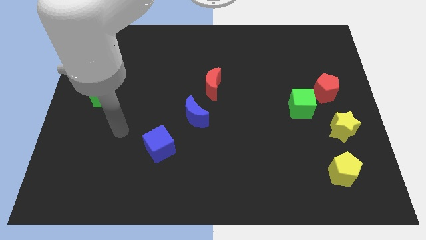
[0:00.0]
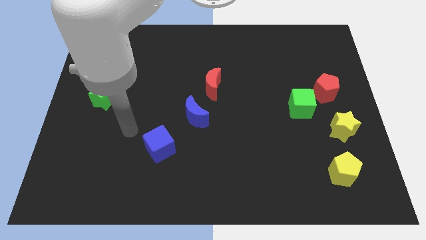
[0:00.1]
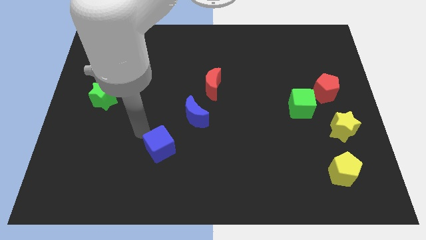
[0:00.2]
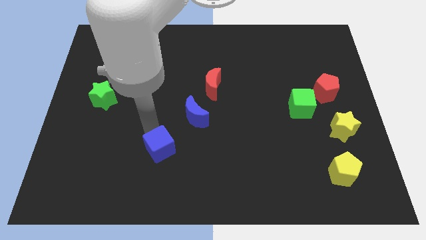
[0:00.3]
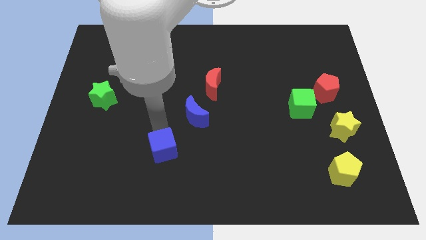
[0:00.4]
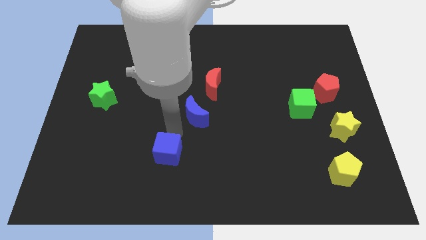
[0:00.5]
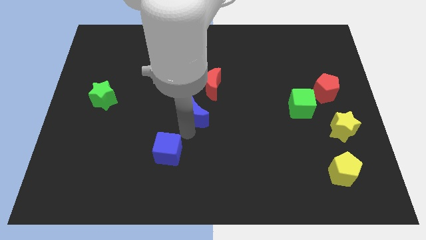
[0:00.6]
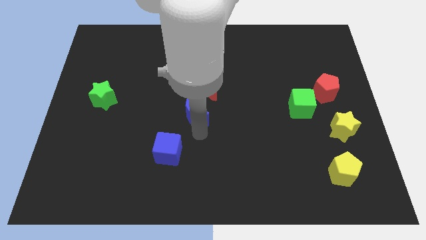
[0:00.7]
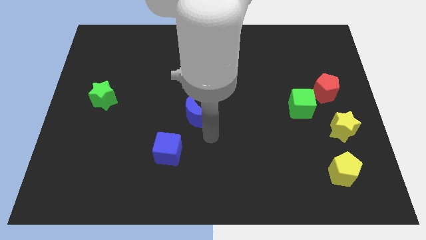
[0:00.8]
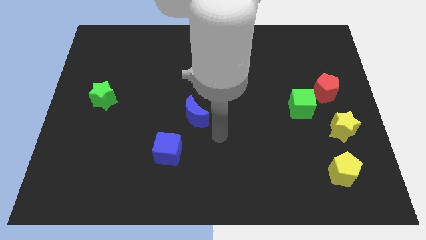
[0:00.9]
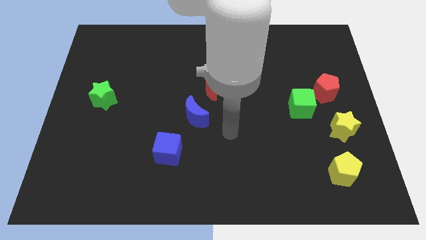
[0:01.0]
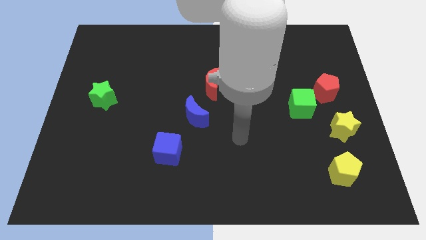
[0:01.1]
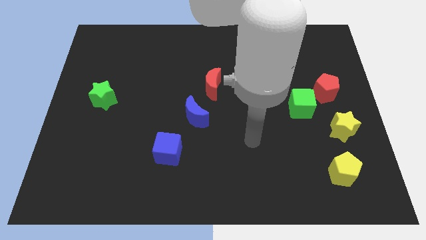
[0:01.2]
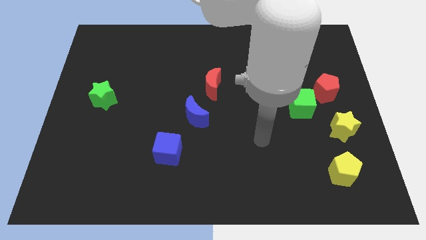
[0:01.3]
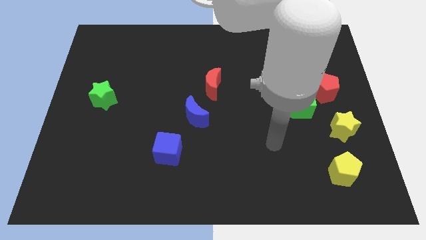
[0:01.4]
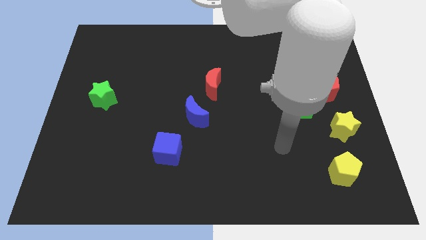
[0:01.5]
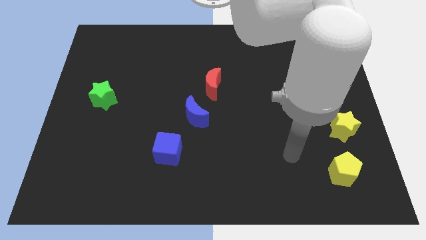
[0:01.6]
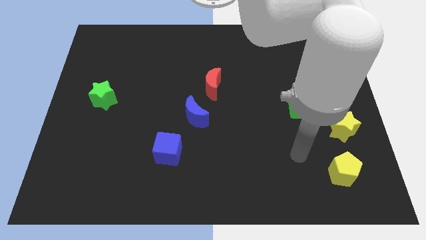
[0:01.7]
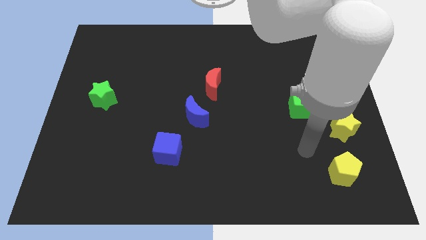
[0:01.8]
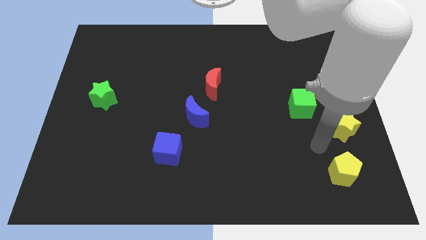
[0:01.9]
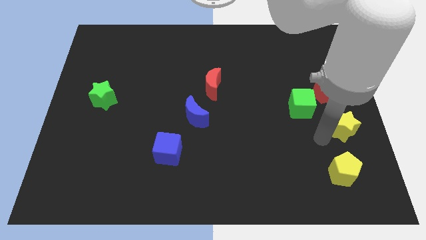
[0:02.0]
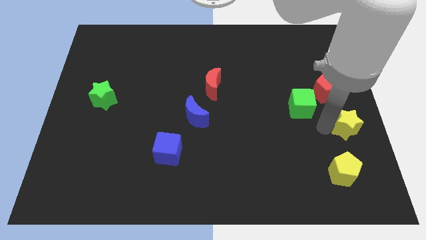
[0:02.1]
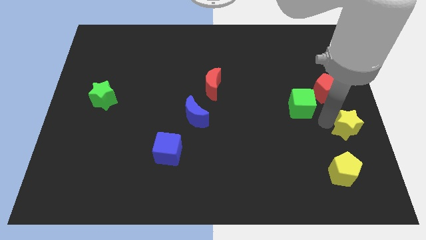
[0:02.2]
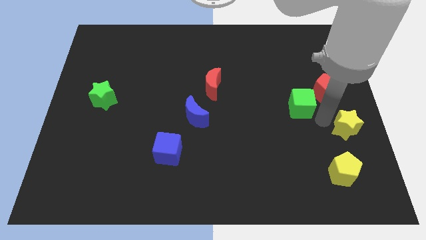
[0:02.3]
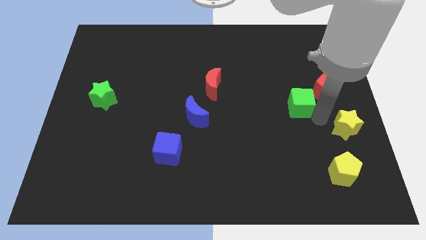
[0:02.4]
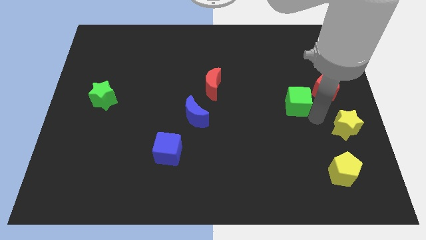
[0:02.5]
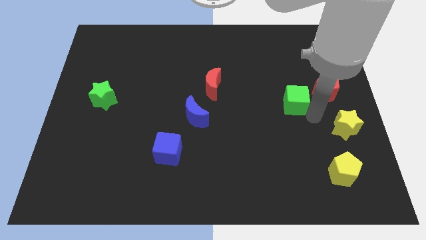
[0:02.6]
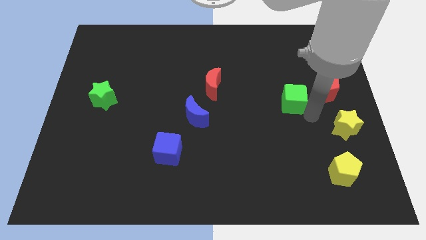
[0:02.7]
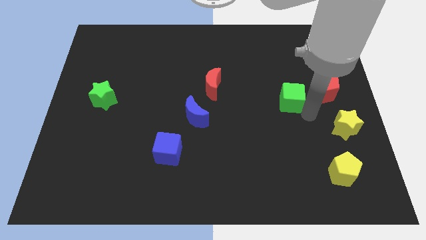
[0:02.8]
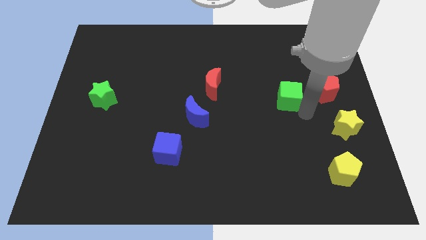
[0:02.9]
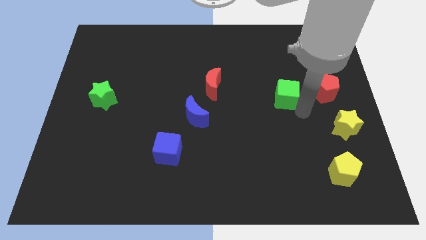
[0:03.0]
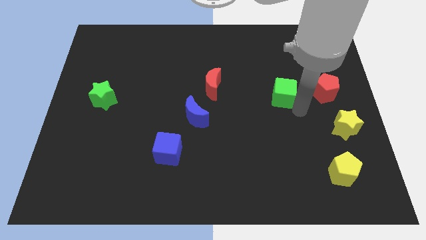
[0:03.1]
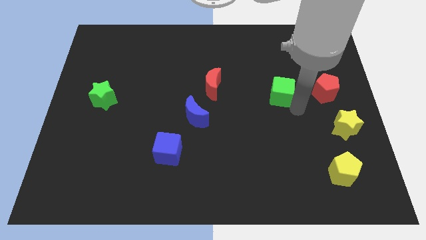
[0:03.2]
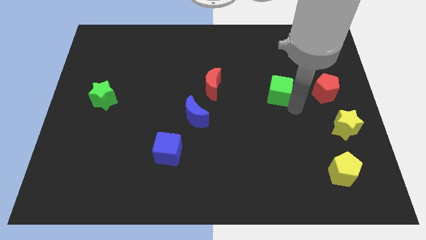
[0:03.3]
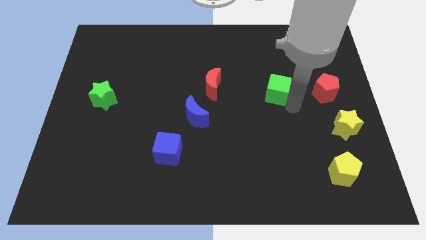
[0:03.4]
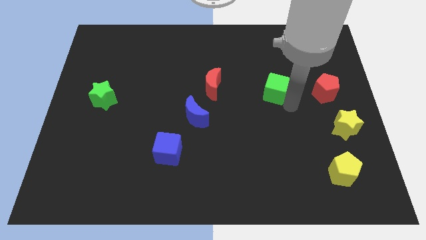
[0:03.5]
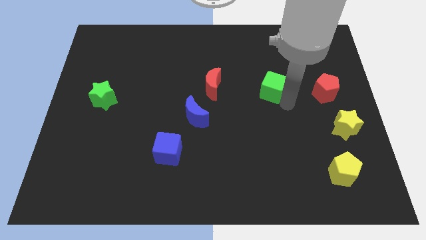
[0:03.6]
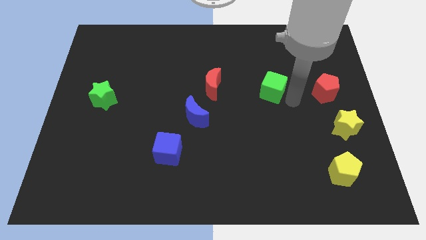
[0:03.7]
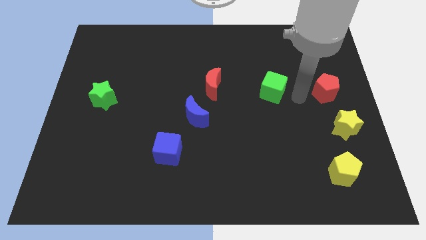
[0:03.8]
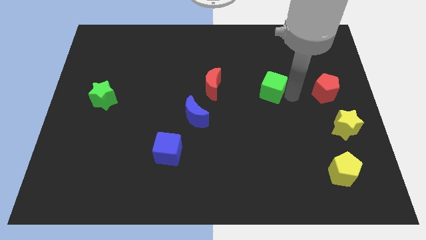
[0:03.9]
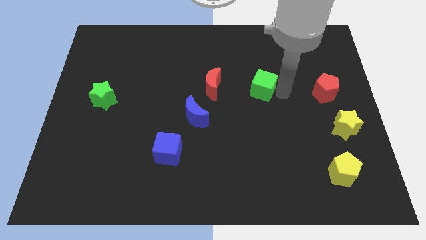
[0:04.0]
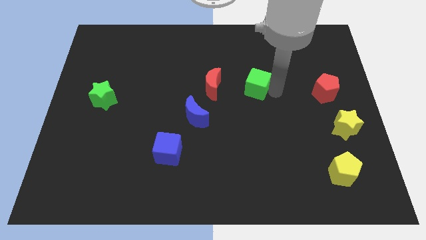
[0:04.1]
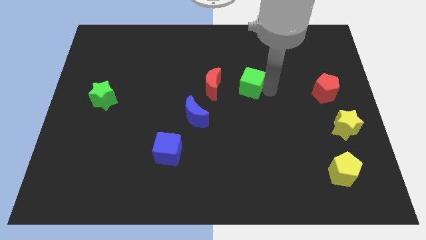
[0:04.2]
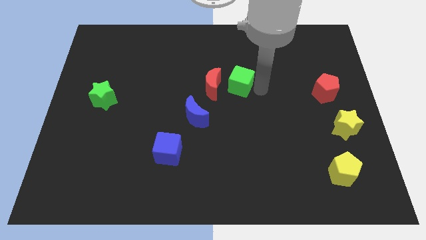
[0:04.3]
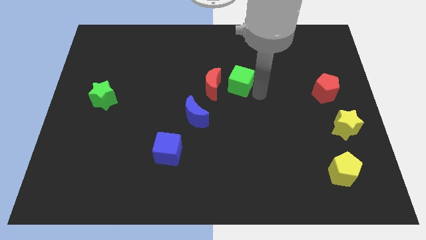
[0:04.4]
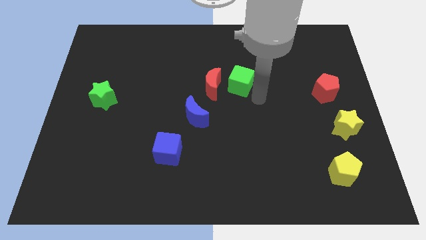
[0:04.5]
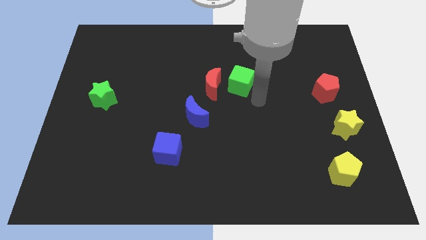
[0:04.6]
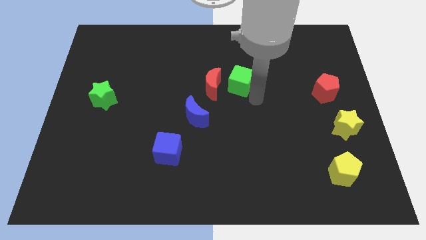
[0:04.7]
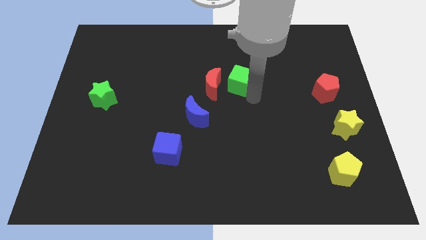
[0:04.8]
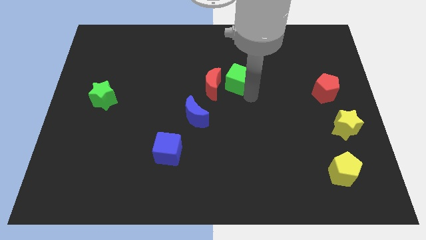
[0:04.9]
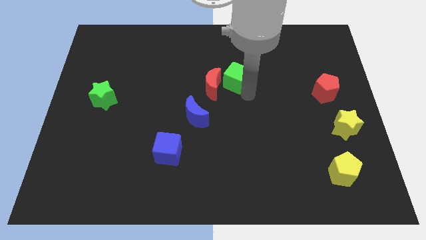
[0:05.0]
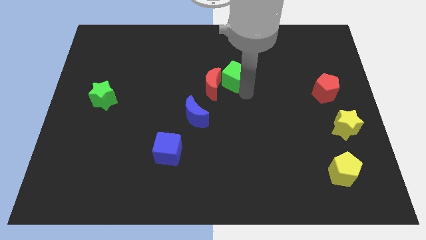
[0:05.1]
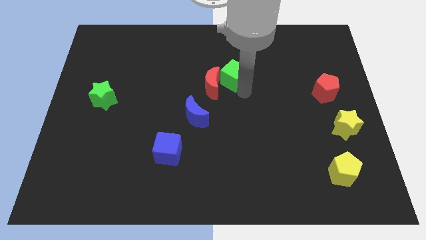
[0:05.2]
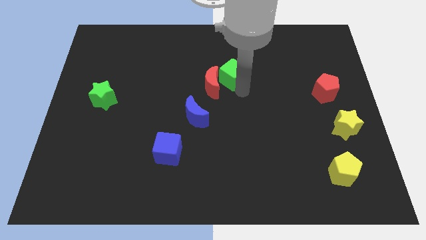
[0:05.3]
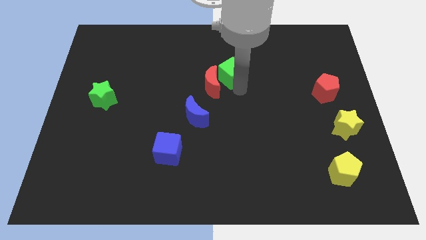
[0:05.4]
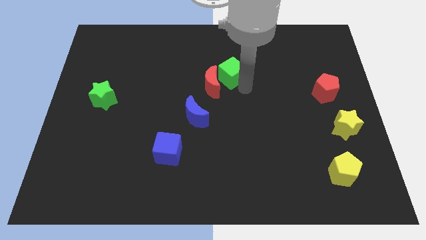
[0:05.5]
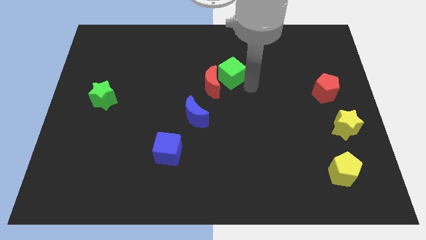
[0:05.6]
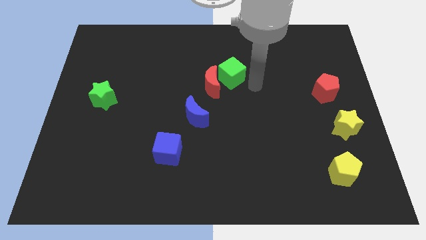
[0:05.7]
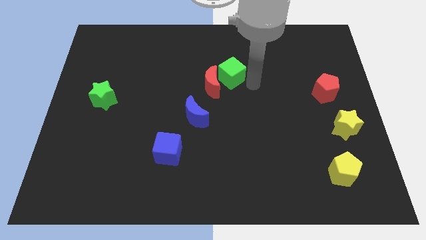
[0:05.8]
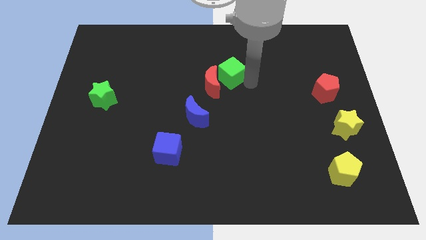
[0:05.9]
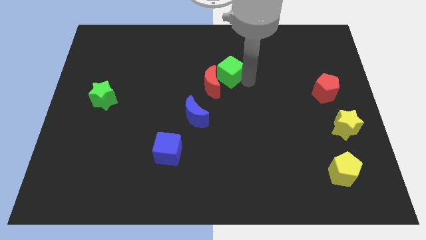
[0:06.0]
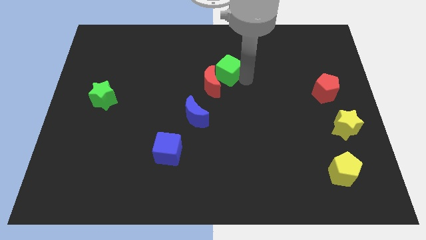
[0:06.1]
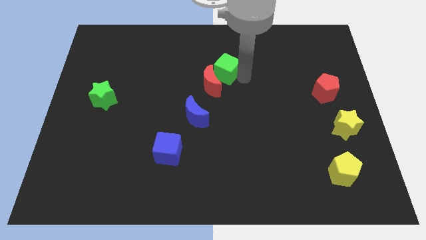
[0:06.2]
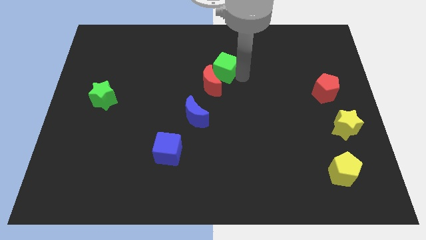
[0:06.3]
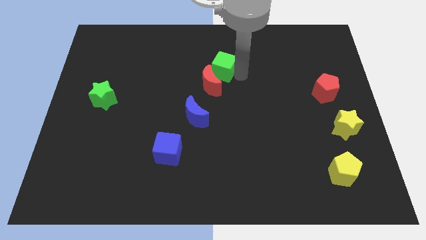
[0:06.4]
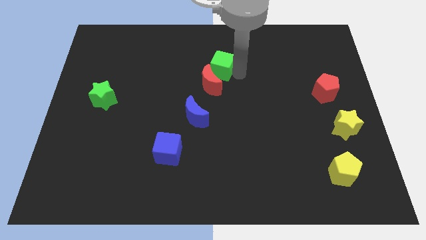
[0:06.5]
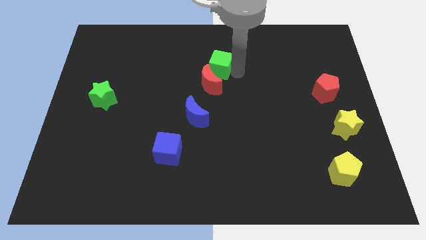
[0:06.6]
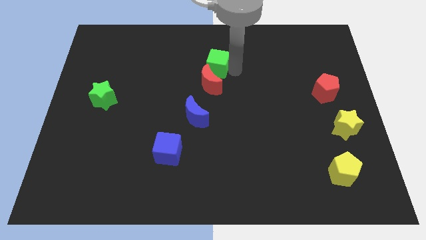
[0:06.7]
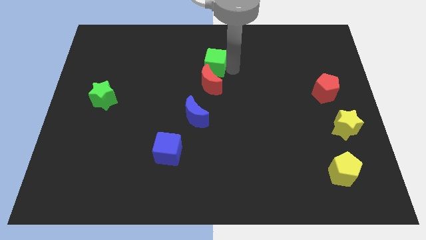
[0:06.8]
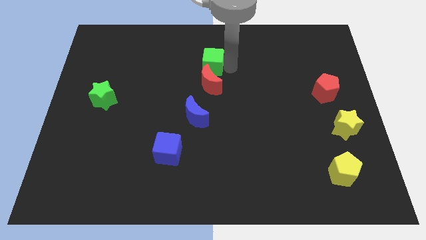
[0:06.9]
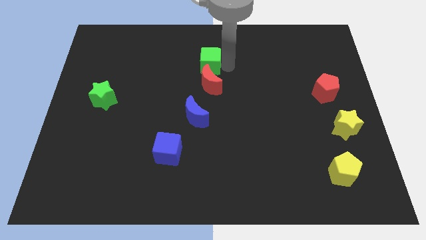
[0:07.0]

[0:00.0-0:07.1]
slide the green cube to the top left side of the red moon

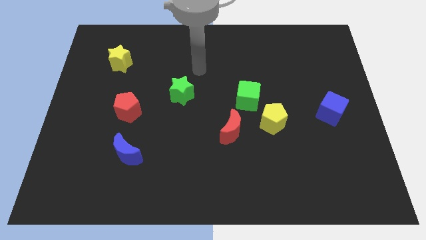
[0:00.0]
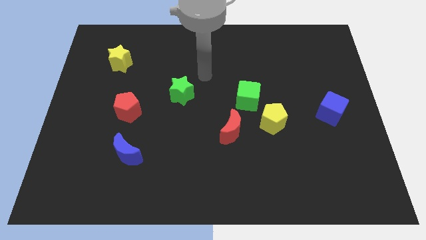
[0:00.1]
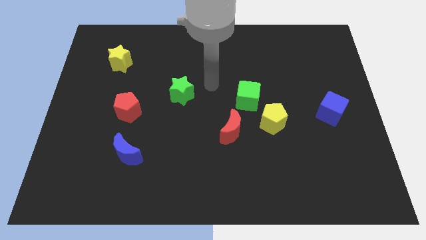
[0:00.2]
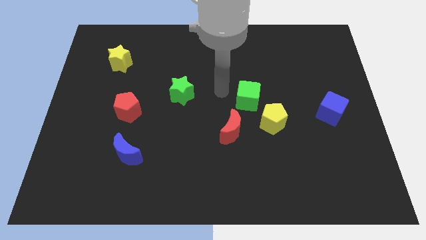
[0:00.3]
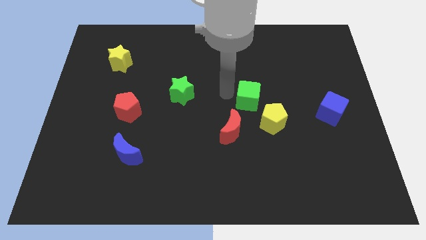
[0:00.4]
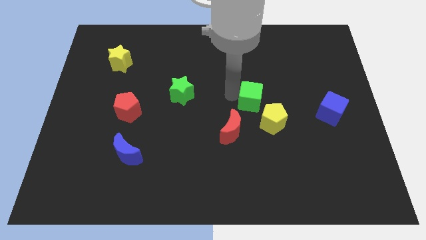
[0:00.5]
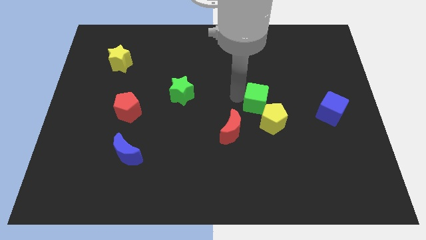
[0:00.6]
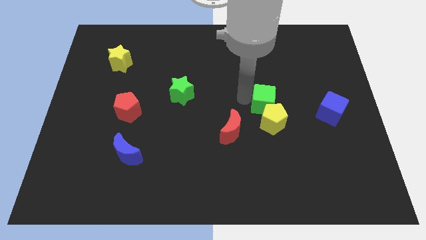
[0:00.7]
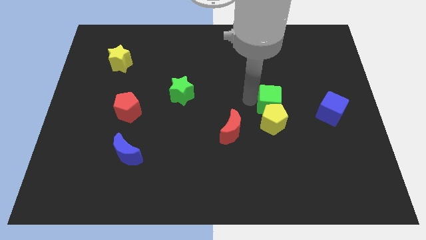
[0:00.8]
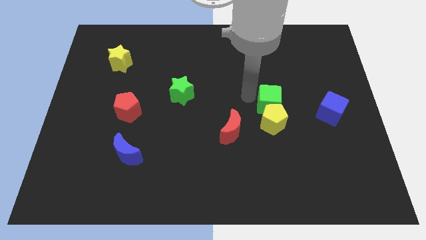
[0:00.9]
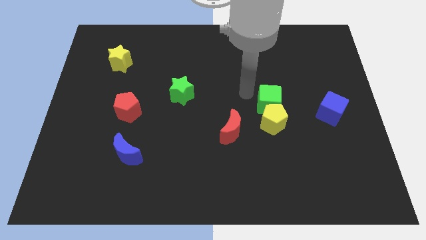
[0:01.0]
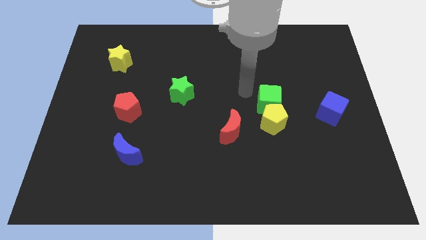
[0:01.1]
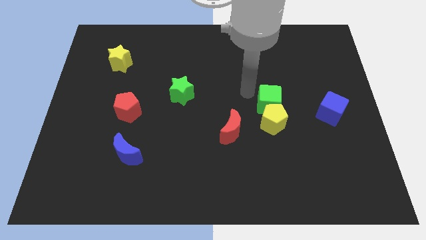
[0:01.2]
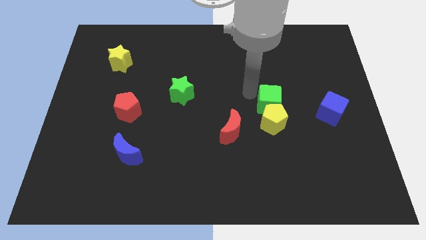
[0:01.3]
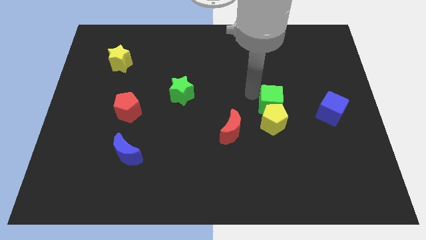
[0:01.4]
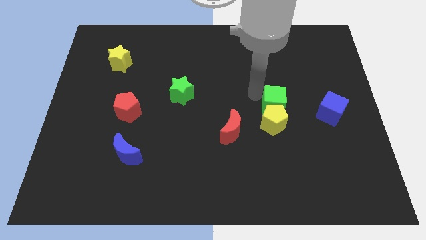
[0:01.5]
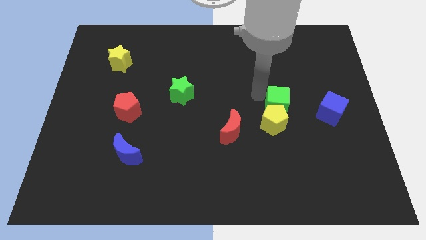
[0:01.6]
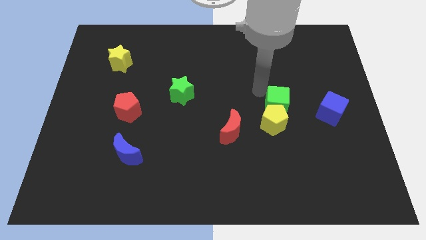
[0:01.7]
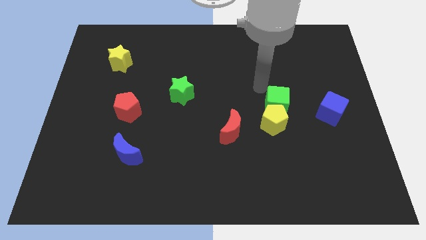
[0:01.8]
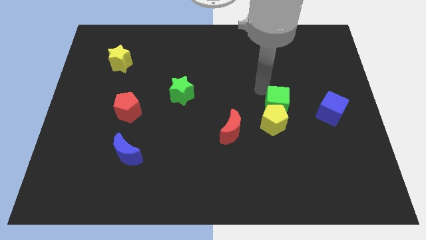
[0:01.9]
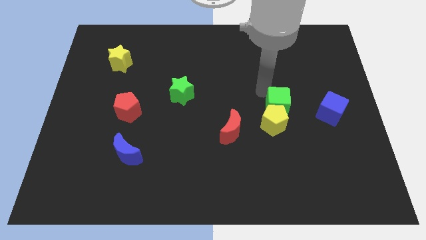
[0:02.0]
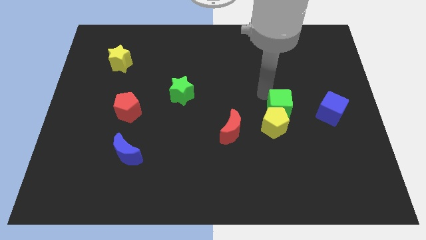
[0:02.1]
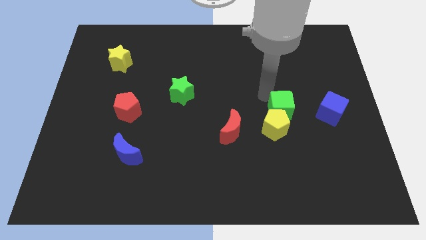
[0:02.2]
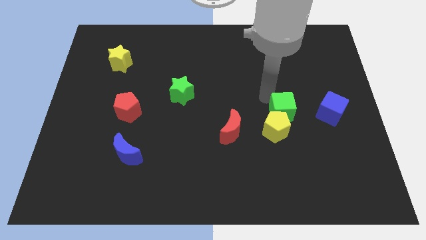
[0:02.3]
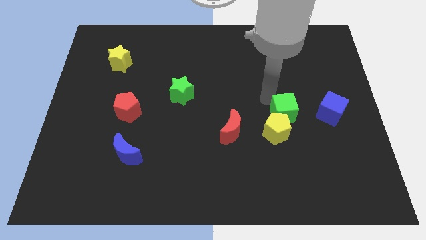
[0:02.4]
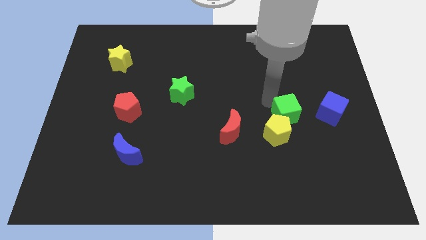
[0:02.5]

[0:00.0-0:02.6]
push the green cube right of the red moon
